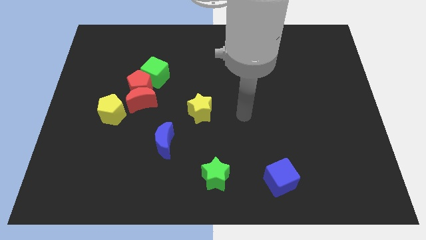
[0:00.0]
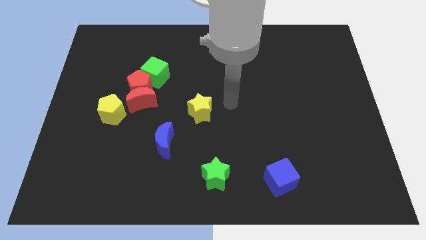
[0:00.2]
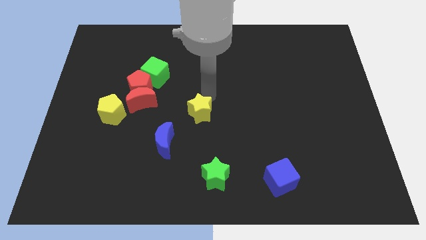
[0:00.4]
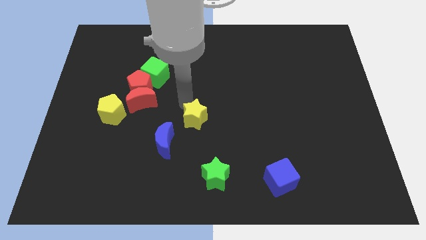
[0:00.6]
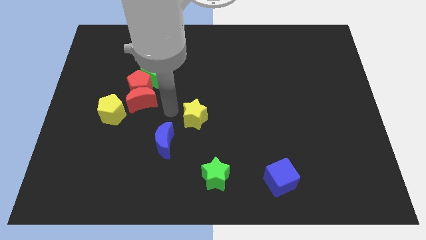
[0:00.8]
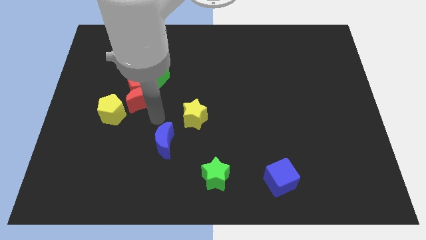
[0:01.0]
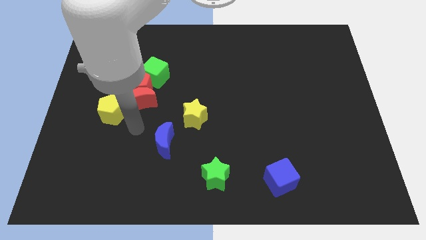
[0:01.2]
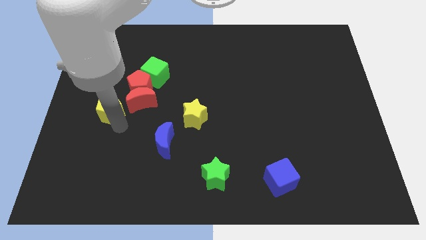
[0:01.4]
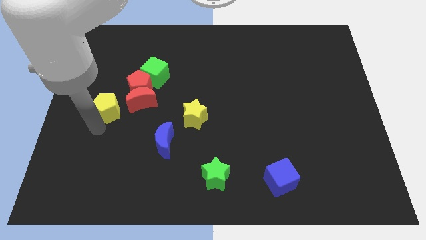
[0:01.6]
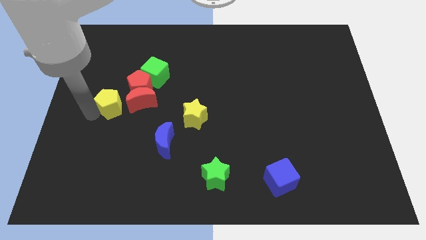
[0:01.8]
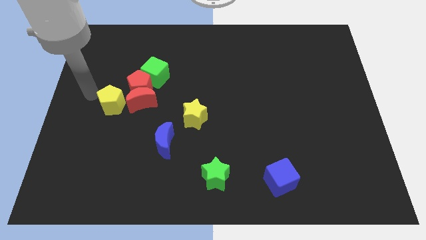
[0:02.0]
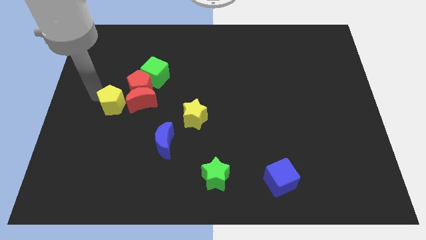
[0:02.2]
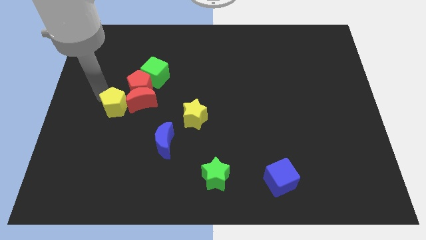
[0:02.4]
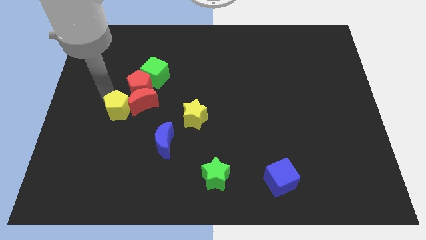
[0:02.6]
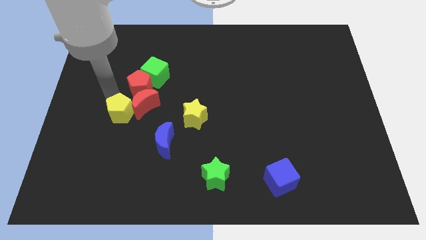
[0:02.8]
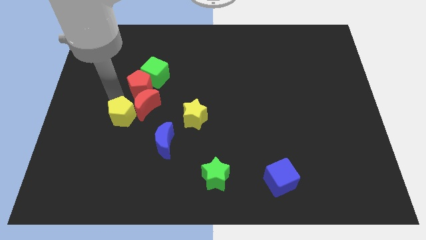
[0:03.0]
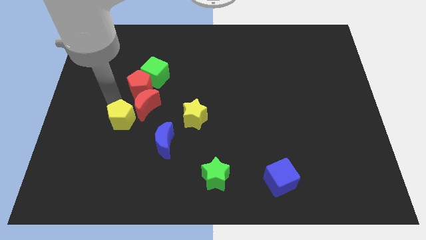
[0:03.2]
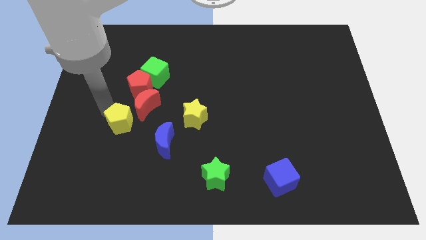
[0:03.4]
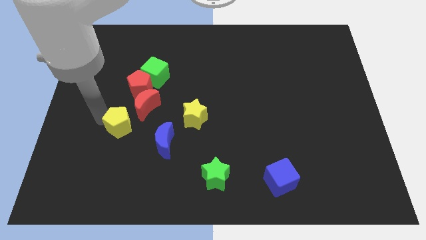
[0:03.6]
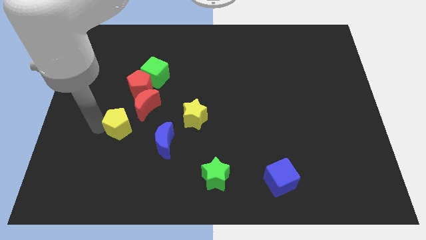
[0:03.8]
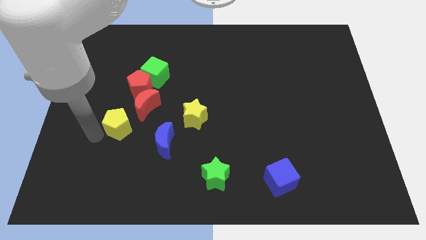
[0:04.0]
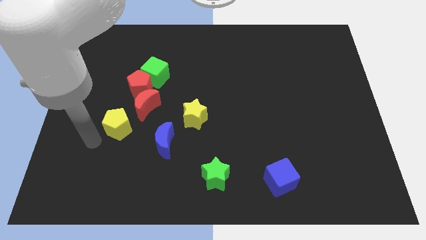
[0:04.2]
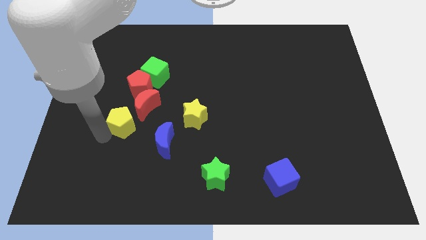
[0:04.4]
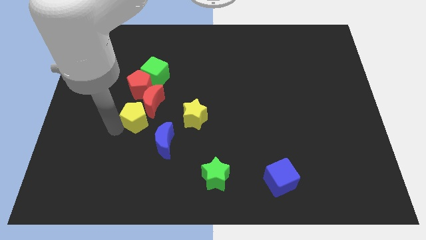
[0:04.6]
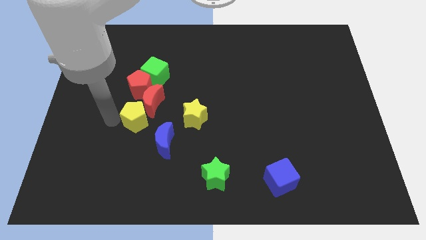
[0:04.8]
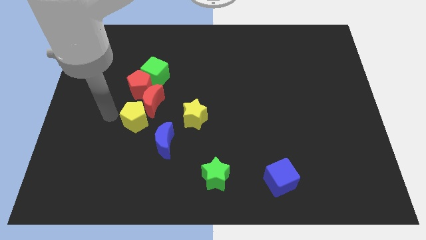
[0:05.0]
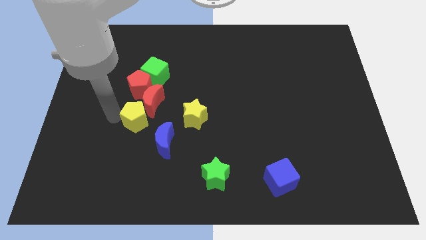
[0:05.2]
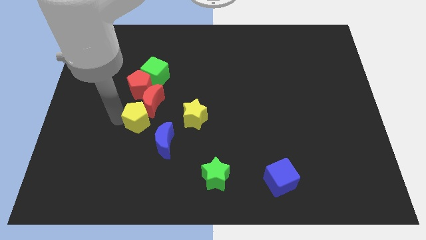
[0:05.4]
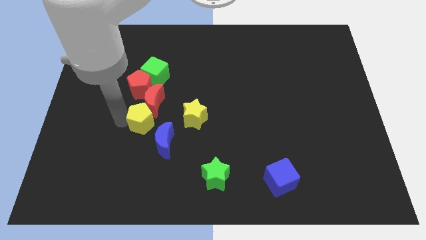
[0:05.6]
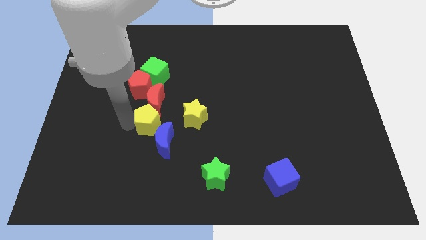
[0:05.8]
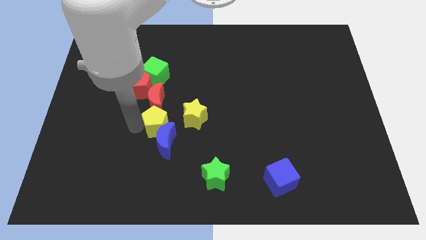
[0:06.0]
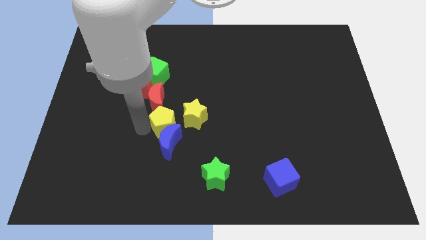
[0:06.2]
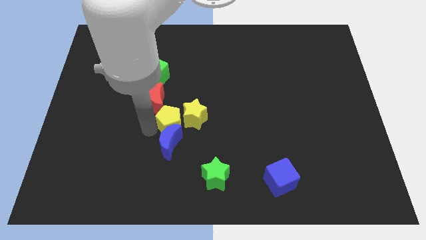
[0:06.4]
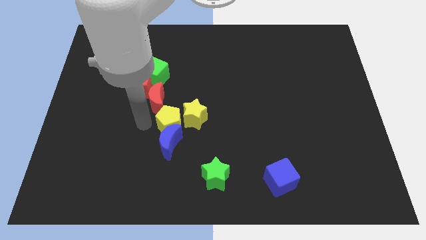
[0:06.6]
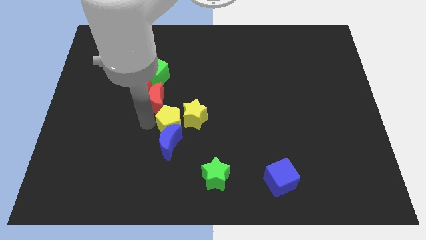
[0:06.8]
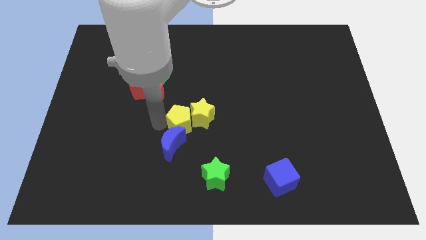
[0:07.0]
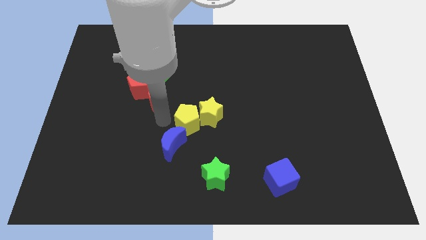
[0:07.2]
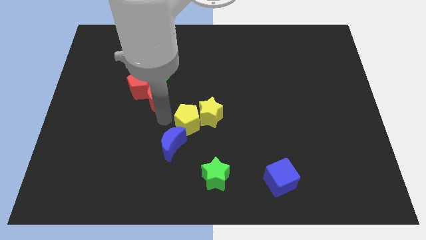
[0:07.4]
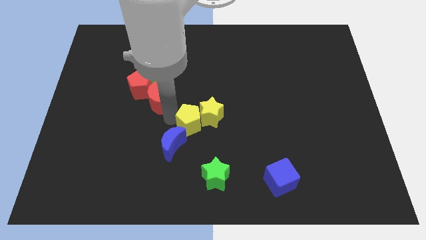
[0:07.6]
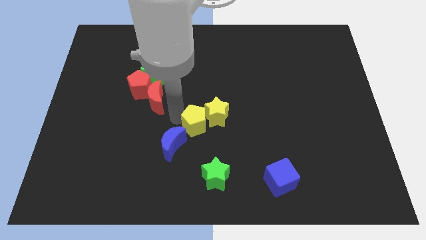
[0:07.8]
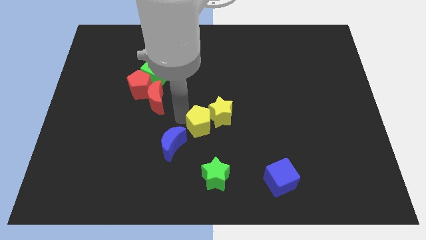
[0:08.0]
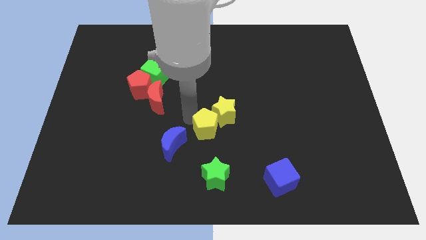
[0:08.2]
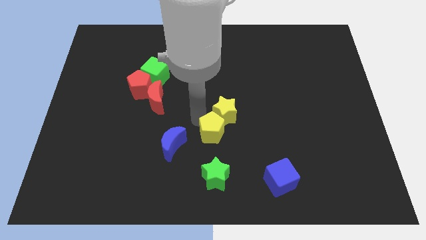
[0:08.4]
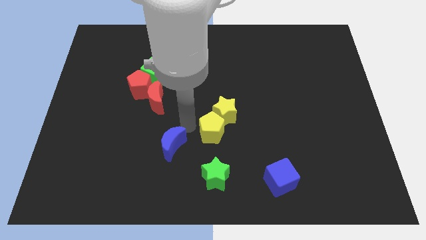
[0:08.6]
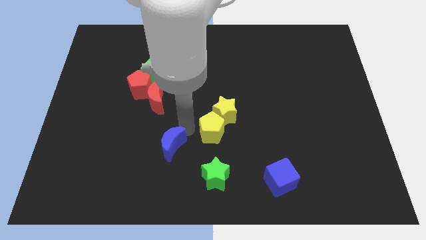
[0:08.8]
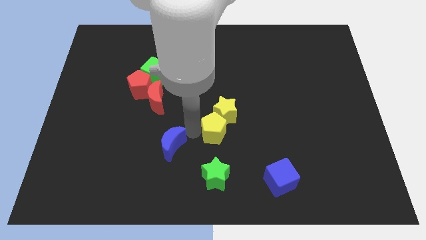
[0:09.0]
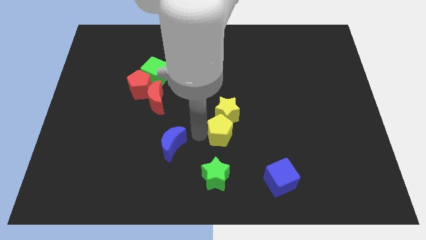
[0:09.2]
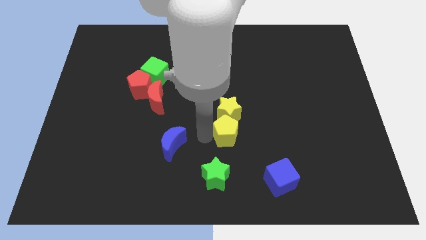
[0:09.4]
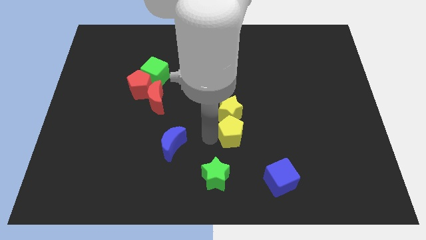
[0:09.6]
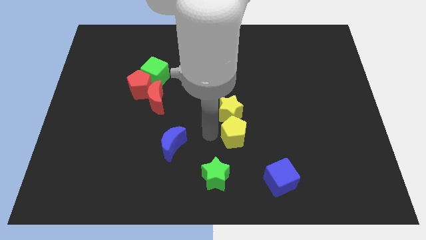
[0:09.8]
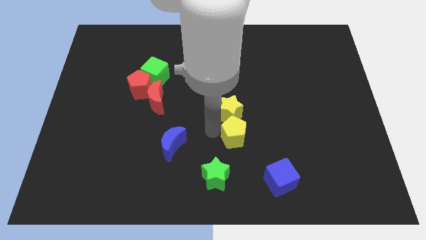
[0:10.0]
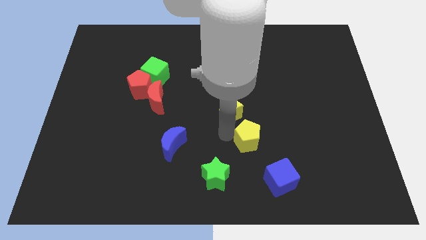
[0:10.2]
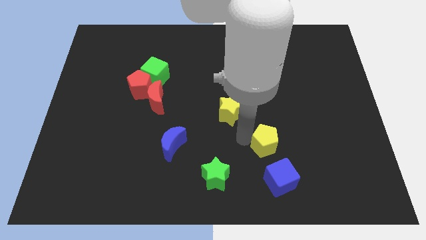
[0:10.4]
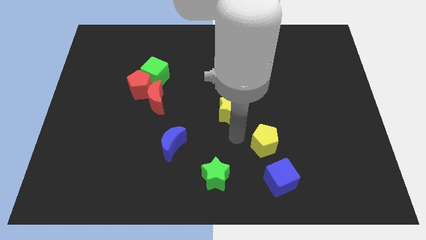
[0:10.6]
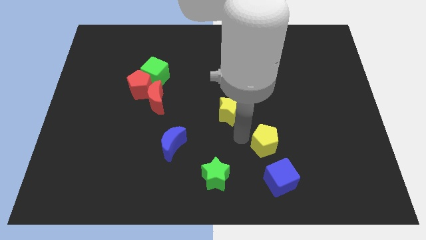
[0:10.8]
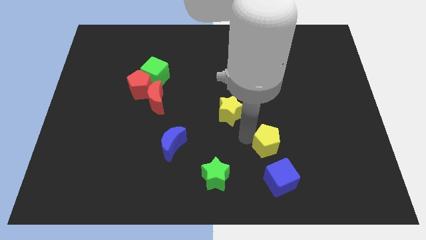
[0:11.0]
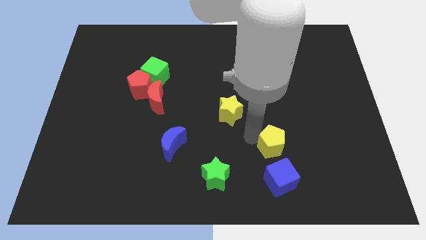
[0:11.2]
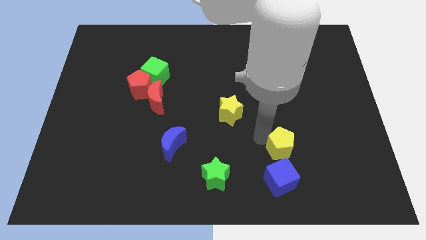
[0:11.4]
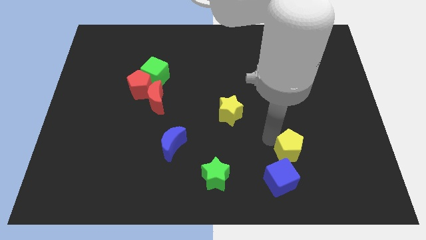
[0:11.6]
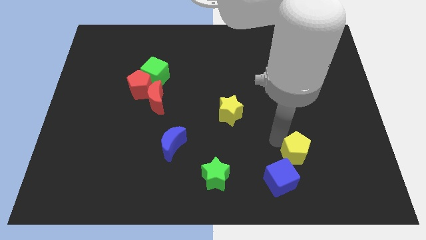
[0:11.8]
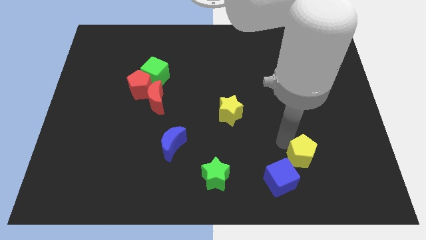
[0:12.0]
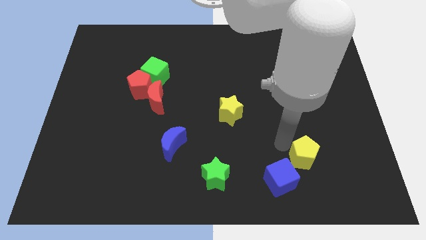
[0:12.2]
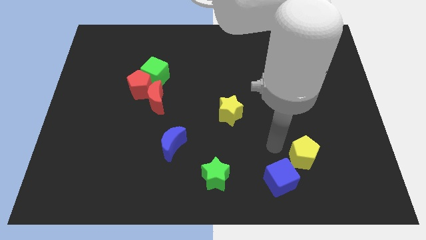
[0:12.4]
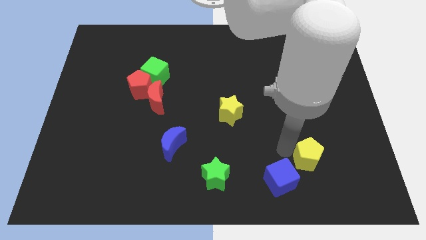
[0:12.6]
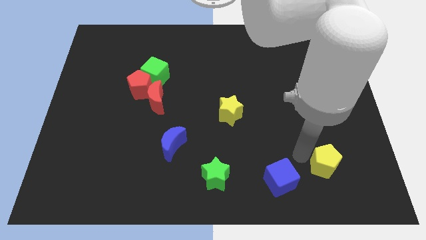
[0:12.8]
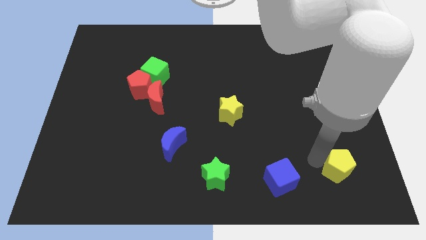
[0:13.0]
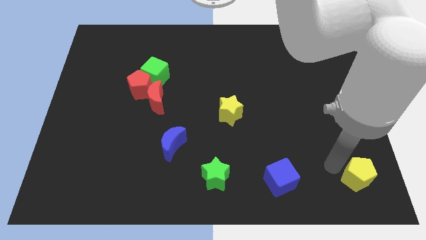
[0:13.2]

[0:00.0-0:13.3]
slide the yellow pentagon to the bottom right corner
